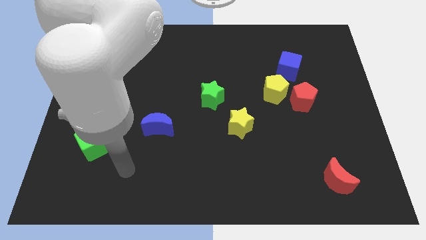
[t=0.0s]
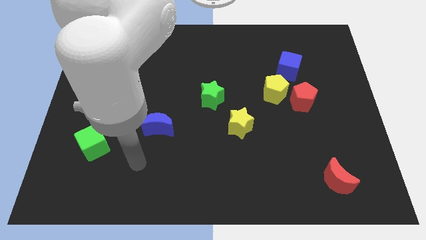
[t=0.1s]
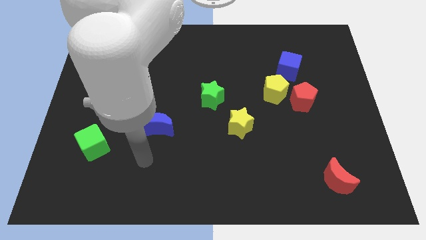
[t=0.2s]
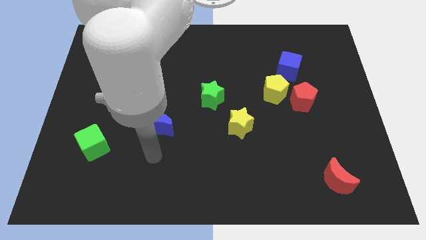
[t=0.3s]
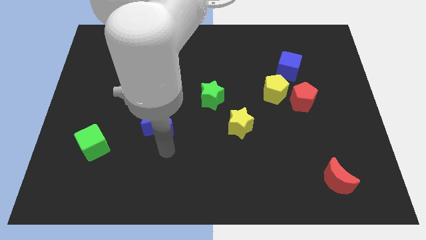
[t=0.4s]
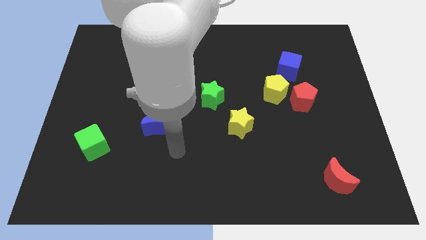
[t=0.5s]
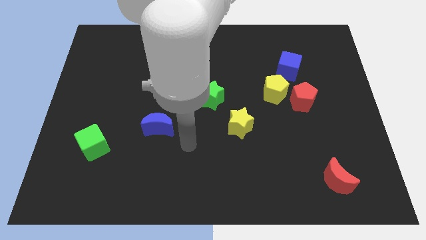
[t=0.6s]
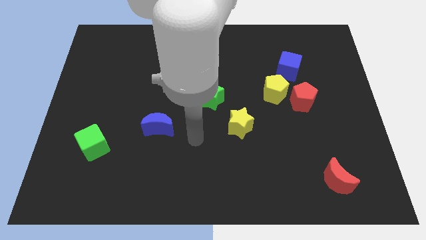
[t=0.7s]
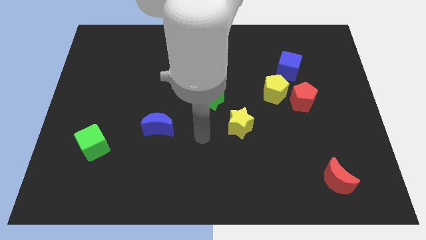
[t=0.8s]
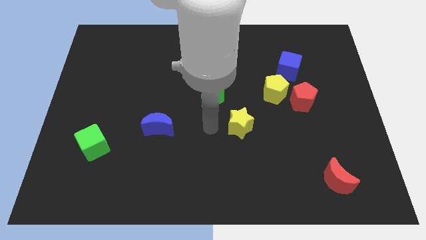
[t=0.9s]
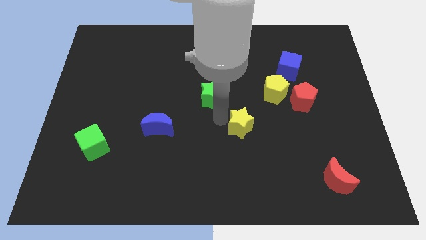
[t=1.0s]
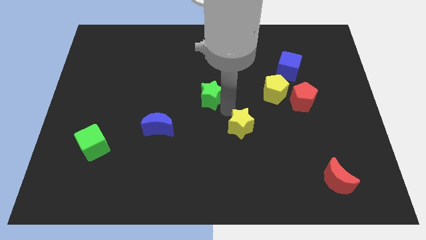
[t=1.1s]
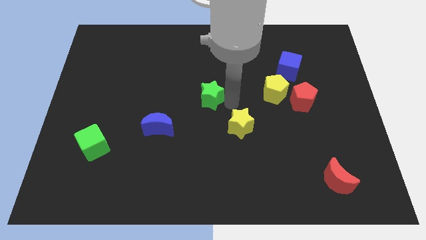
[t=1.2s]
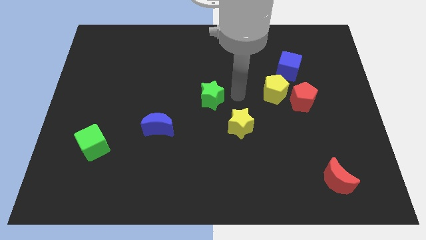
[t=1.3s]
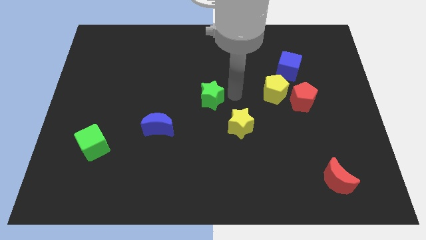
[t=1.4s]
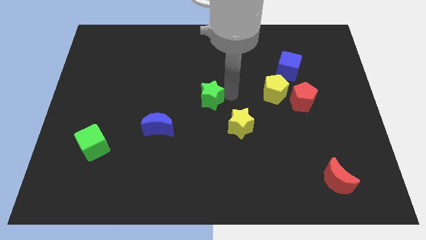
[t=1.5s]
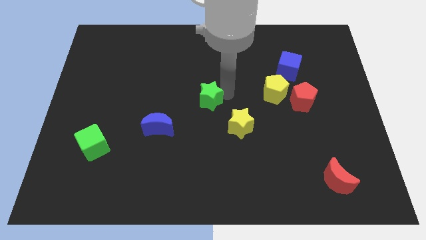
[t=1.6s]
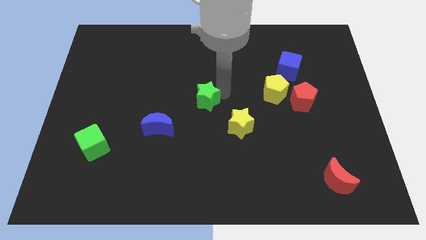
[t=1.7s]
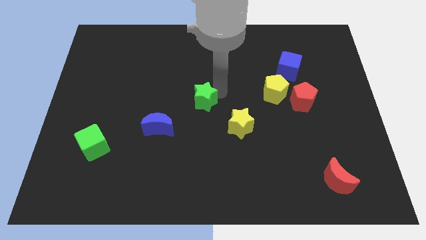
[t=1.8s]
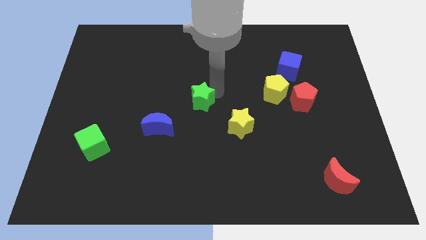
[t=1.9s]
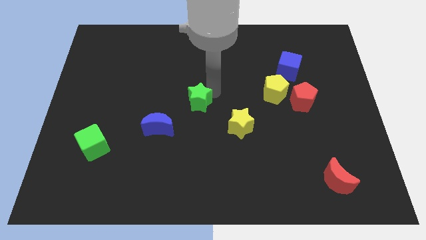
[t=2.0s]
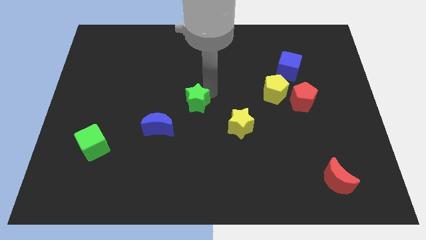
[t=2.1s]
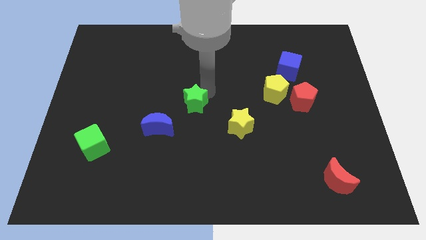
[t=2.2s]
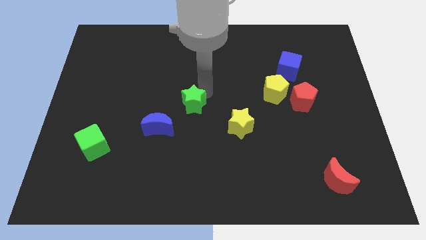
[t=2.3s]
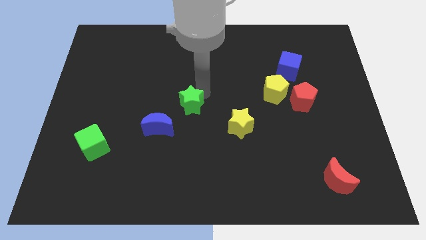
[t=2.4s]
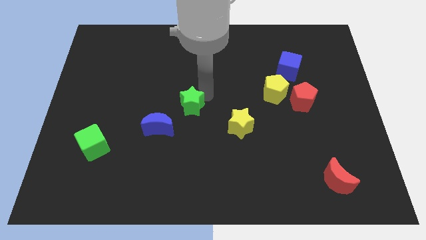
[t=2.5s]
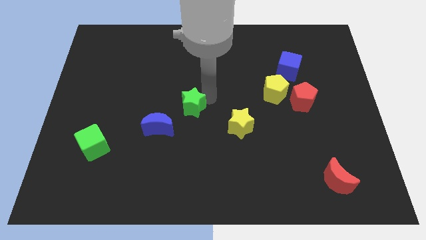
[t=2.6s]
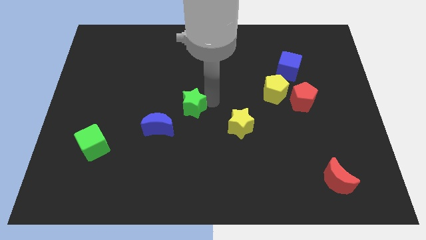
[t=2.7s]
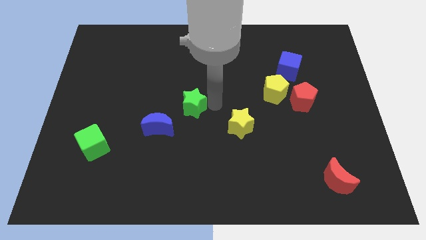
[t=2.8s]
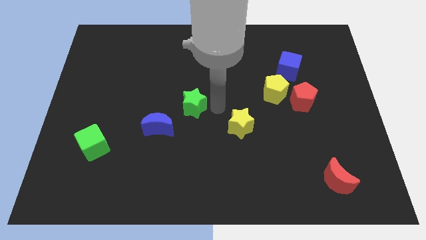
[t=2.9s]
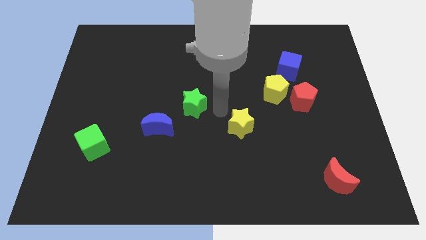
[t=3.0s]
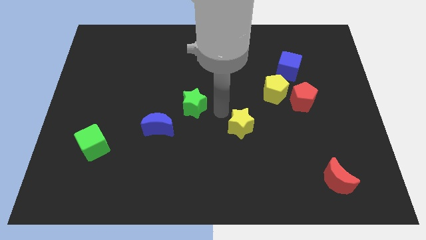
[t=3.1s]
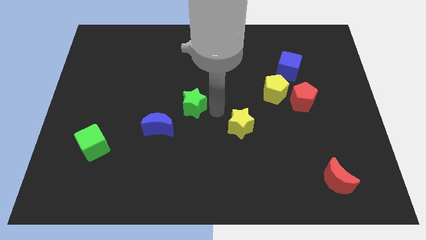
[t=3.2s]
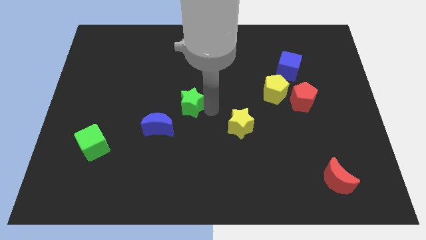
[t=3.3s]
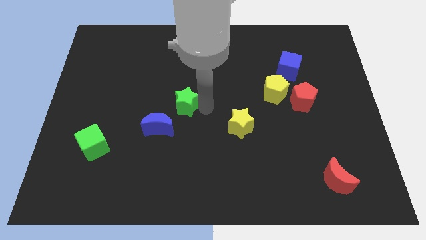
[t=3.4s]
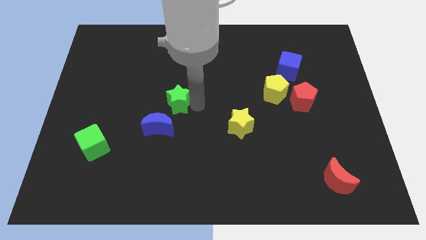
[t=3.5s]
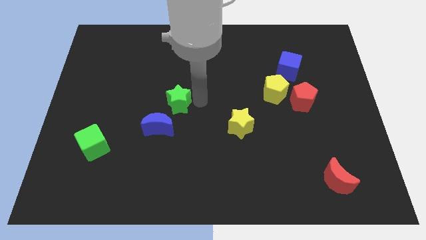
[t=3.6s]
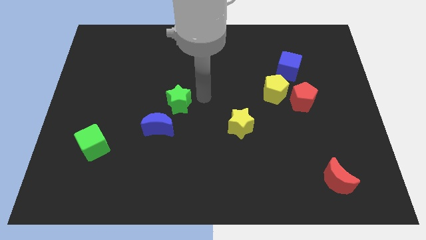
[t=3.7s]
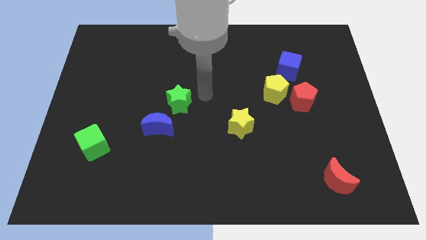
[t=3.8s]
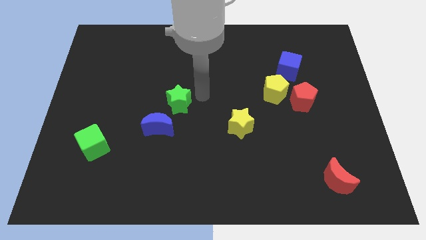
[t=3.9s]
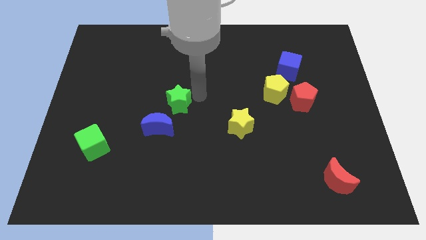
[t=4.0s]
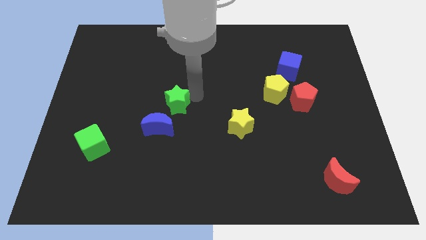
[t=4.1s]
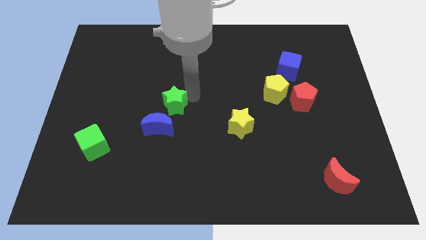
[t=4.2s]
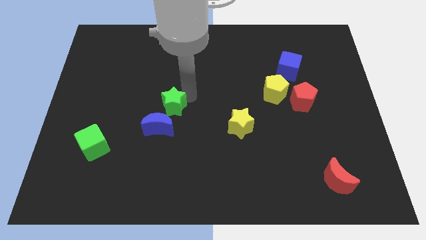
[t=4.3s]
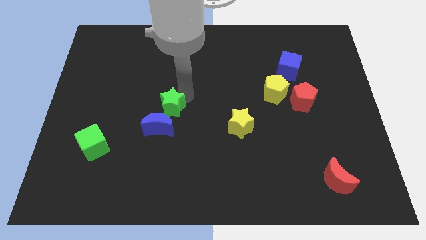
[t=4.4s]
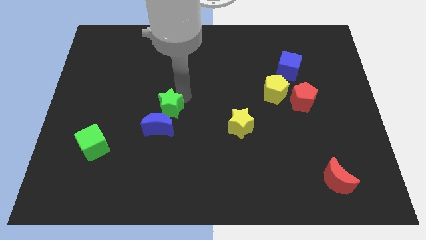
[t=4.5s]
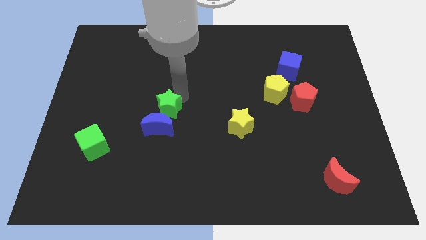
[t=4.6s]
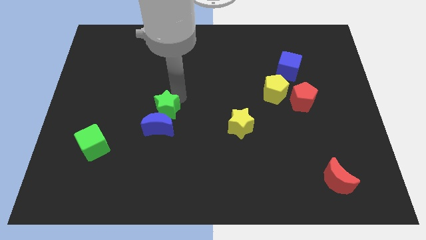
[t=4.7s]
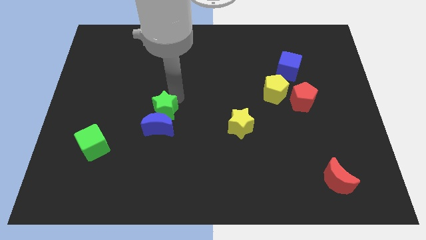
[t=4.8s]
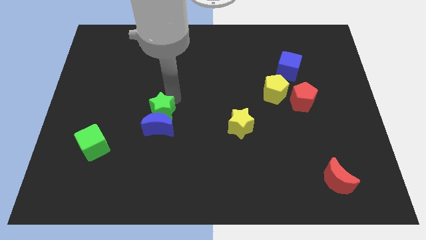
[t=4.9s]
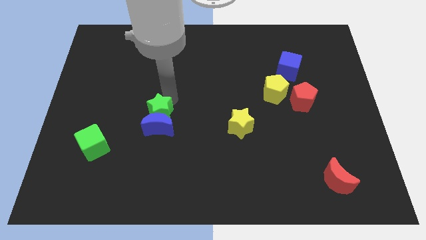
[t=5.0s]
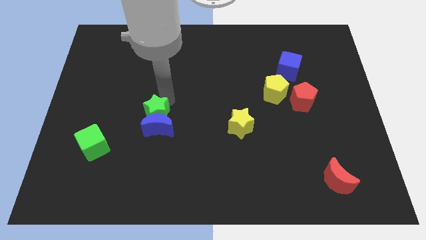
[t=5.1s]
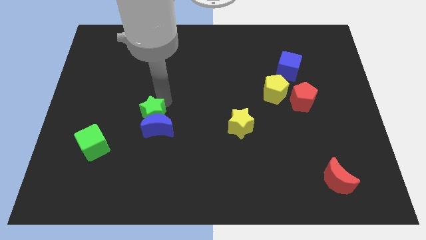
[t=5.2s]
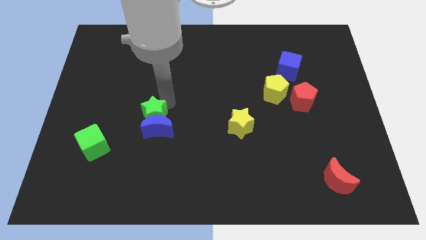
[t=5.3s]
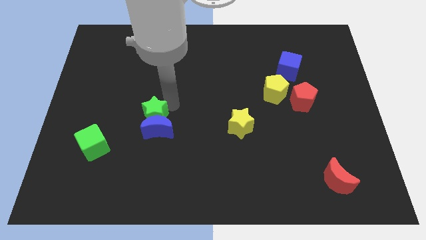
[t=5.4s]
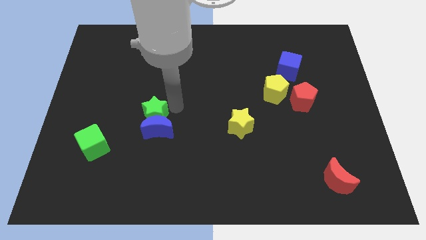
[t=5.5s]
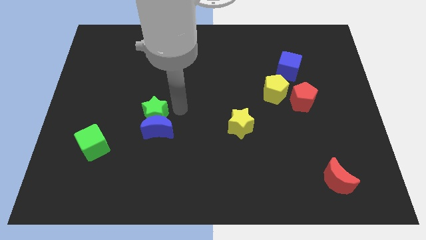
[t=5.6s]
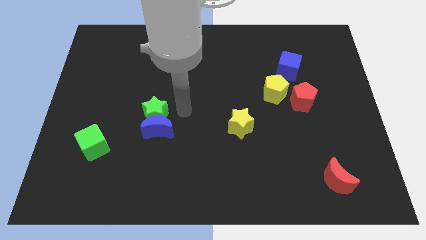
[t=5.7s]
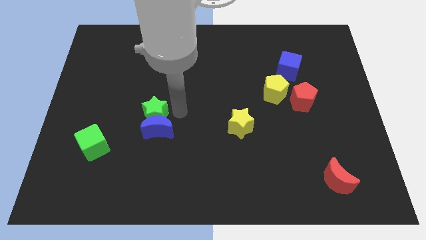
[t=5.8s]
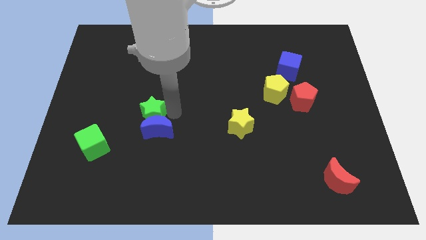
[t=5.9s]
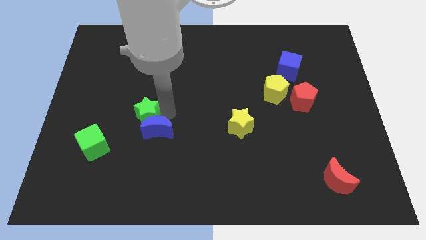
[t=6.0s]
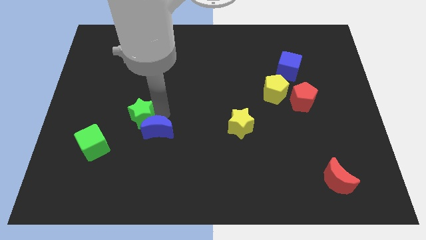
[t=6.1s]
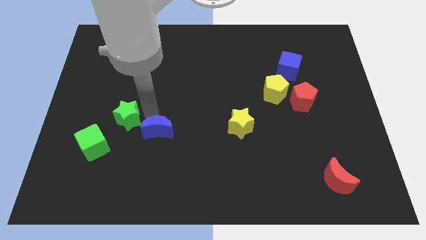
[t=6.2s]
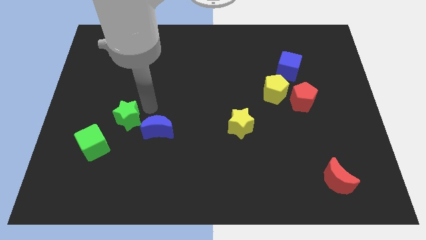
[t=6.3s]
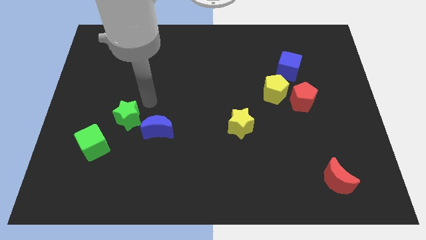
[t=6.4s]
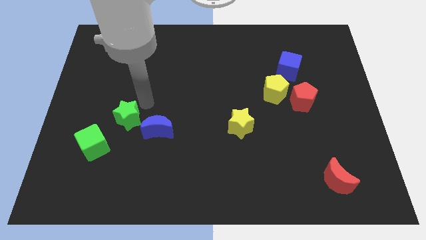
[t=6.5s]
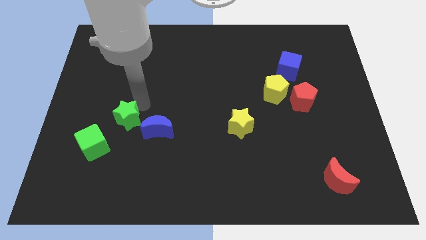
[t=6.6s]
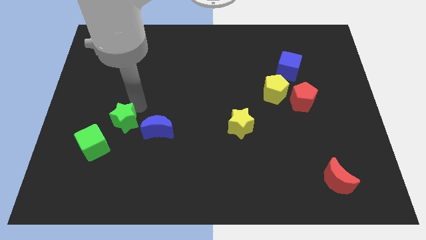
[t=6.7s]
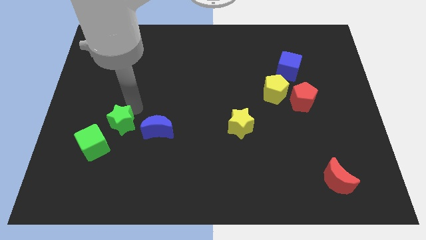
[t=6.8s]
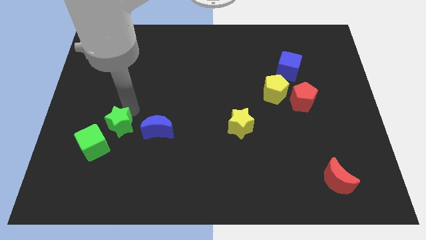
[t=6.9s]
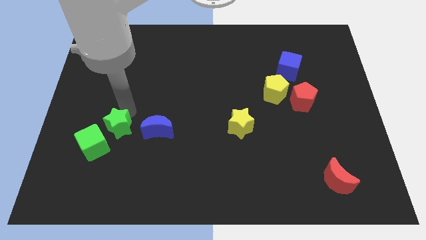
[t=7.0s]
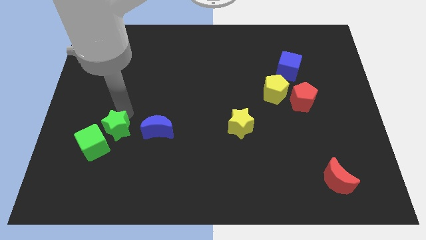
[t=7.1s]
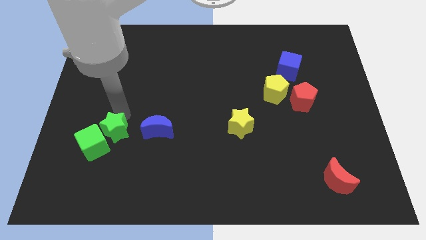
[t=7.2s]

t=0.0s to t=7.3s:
put the green star next to the green cube

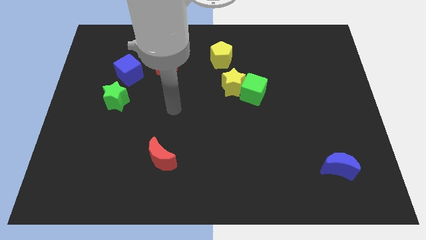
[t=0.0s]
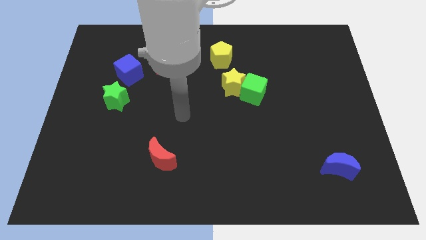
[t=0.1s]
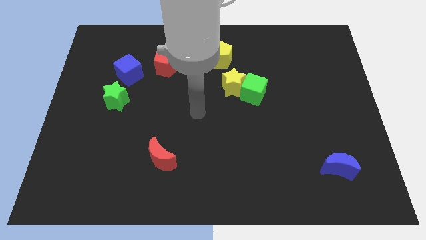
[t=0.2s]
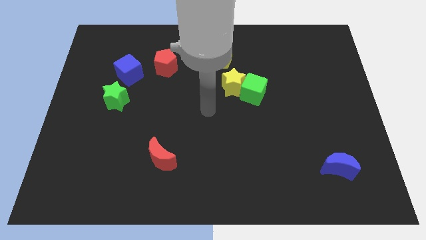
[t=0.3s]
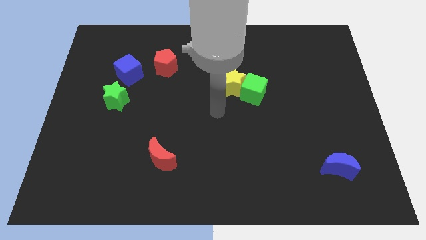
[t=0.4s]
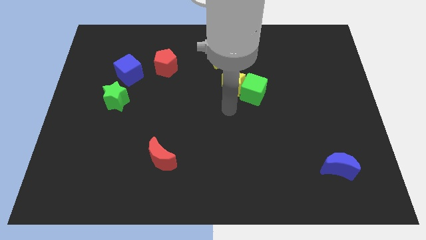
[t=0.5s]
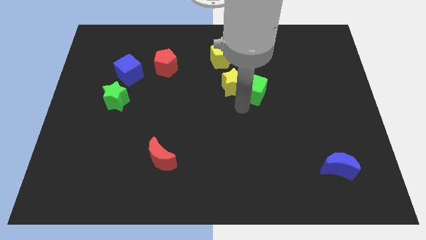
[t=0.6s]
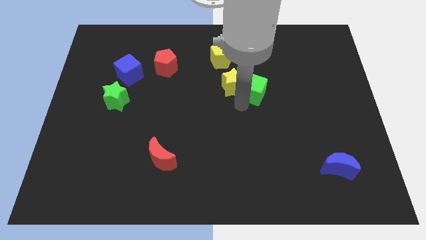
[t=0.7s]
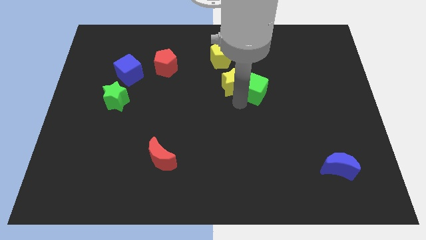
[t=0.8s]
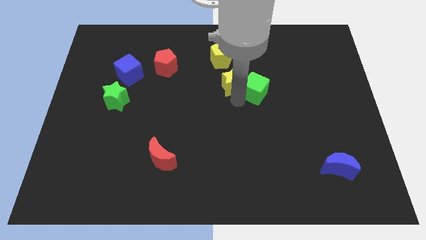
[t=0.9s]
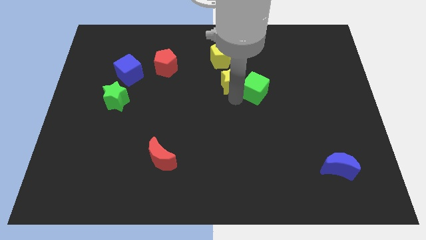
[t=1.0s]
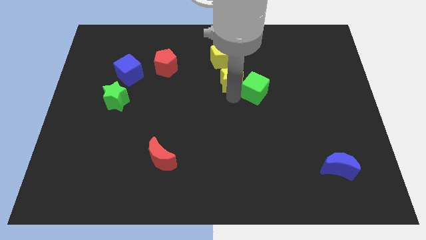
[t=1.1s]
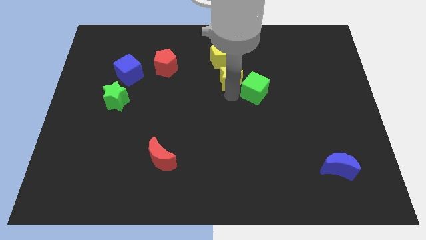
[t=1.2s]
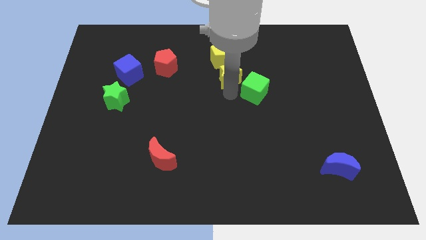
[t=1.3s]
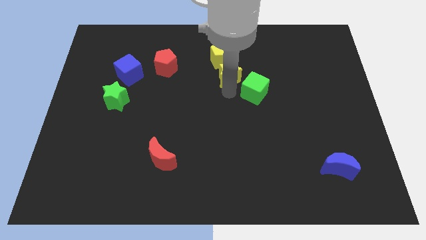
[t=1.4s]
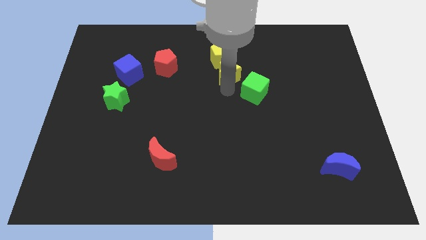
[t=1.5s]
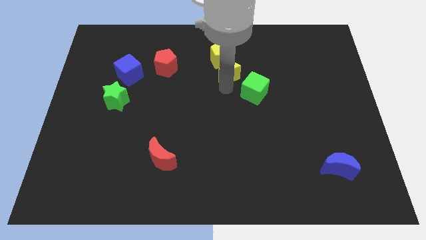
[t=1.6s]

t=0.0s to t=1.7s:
put the yellow star close to the yellow pentagon
